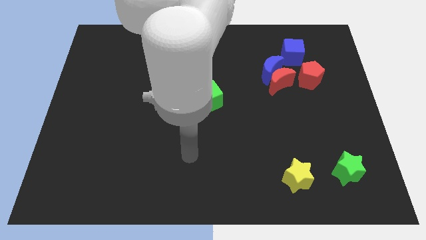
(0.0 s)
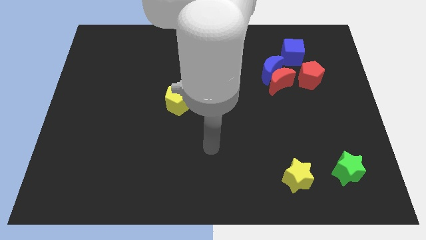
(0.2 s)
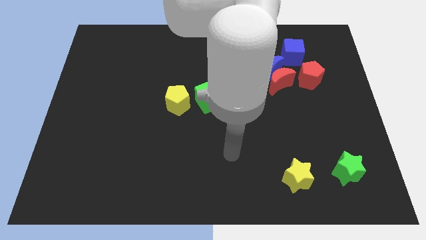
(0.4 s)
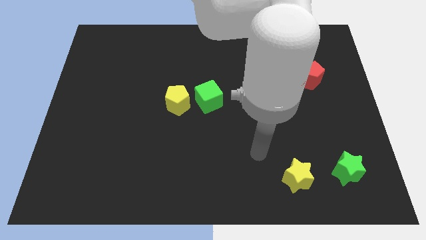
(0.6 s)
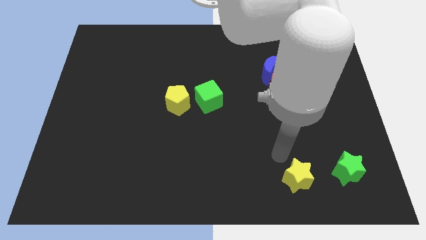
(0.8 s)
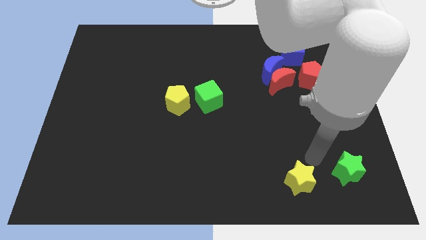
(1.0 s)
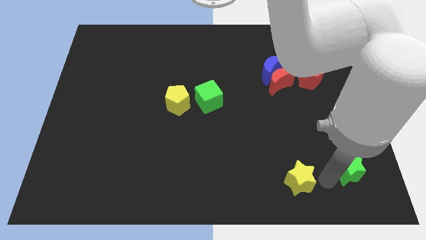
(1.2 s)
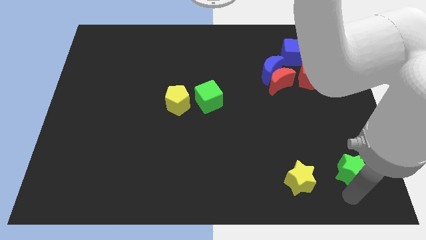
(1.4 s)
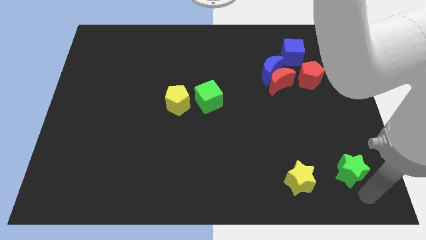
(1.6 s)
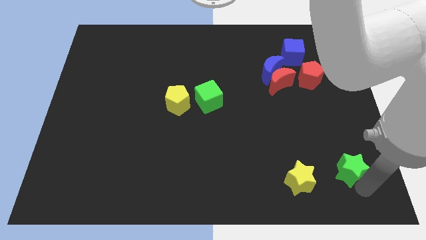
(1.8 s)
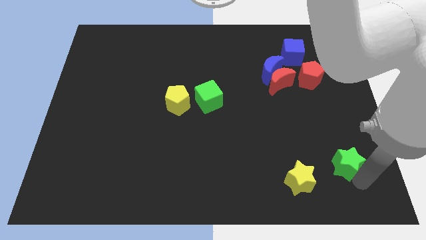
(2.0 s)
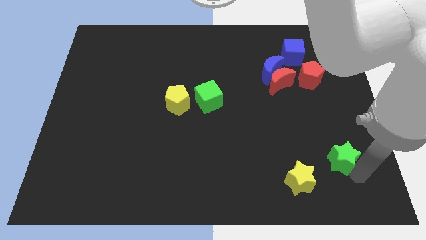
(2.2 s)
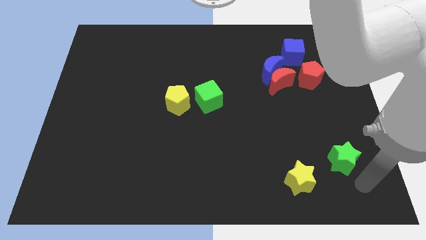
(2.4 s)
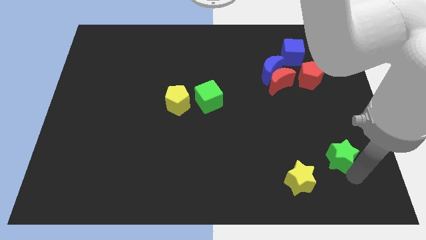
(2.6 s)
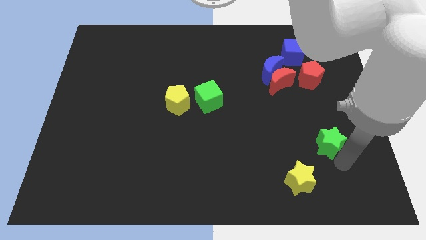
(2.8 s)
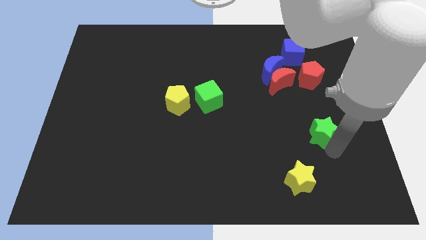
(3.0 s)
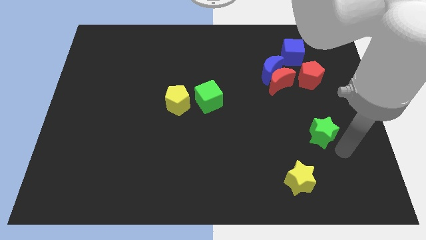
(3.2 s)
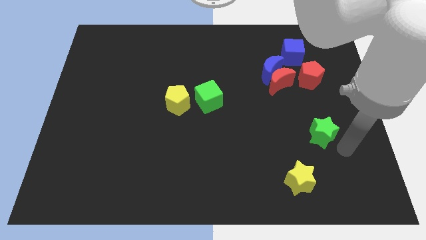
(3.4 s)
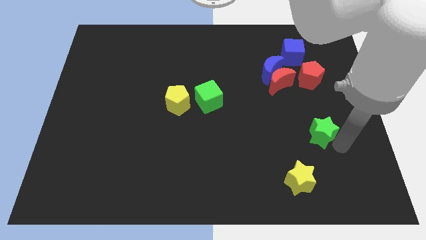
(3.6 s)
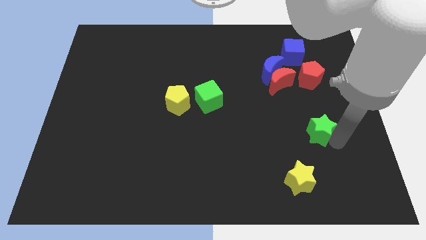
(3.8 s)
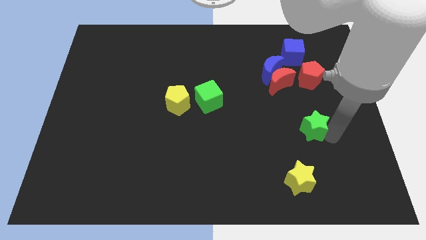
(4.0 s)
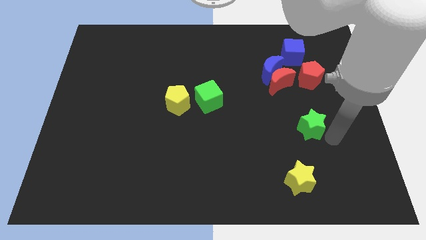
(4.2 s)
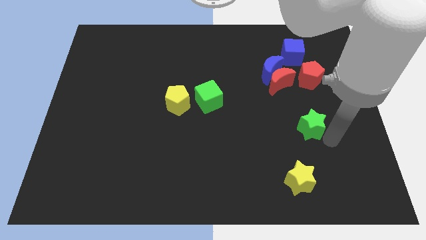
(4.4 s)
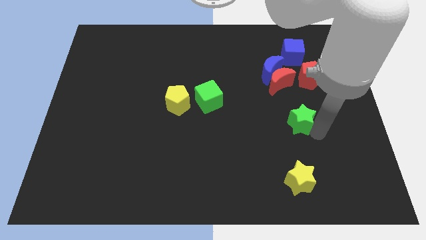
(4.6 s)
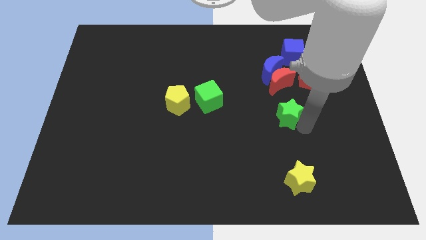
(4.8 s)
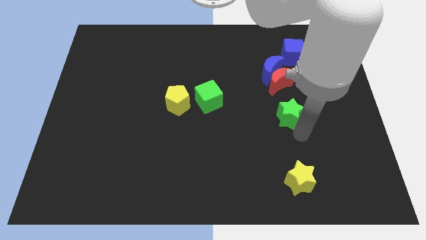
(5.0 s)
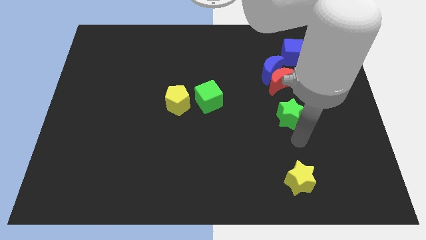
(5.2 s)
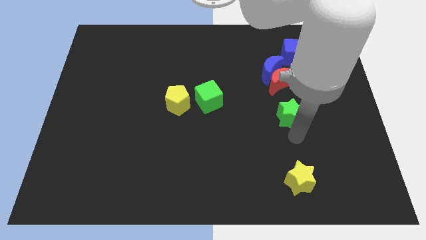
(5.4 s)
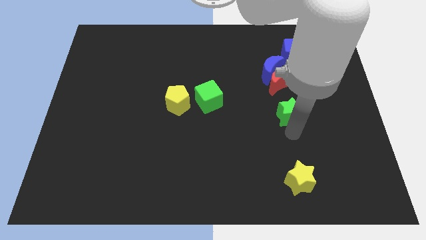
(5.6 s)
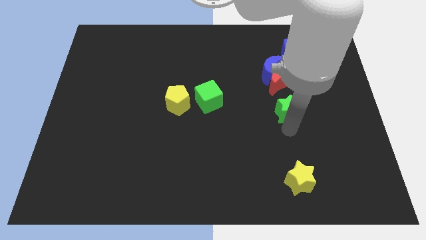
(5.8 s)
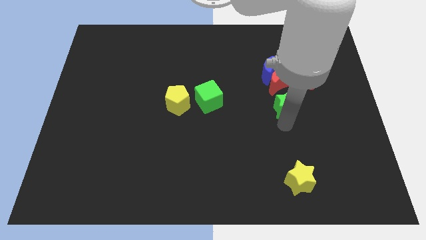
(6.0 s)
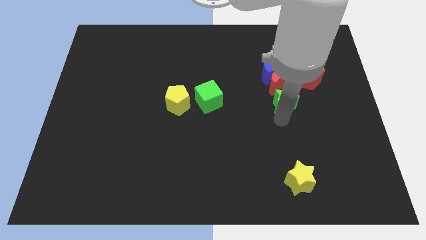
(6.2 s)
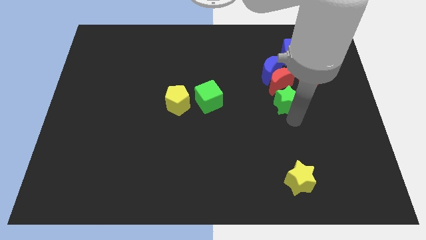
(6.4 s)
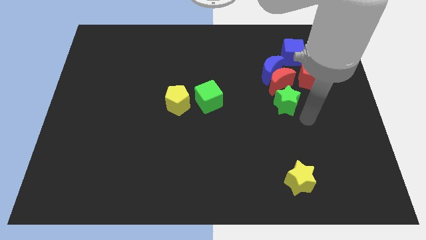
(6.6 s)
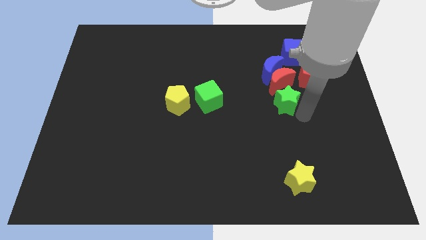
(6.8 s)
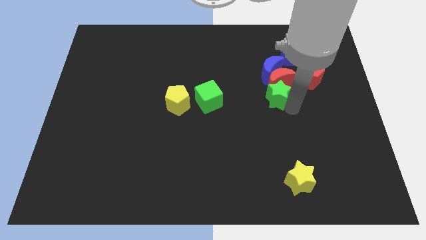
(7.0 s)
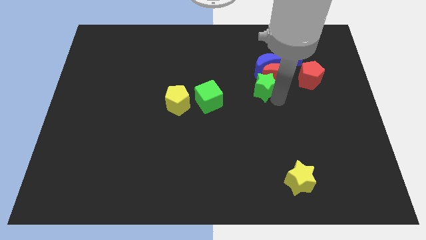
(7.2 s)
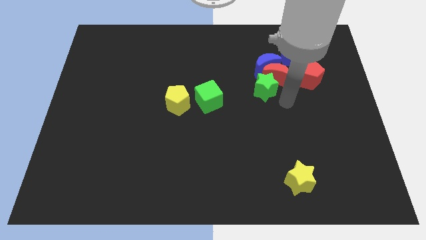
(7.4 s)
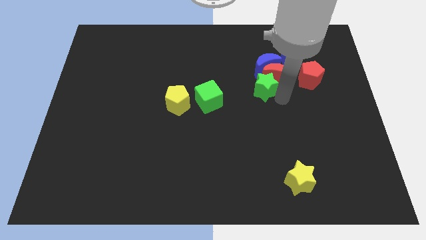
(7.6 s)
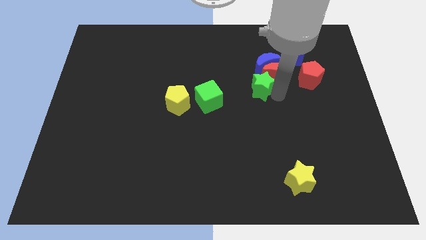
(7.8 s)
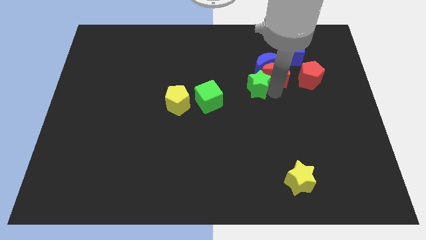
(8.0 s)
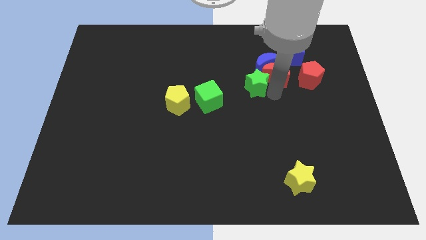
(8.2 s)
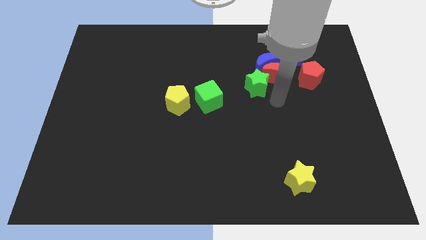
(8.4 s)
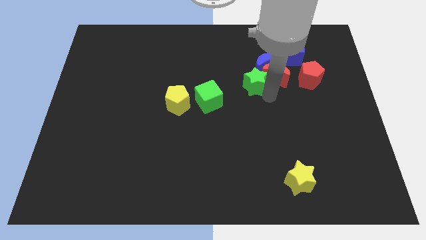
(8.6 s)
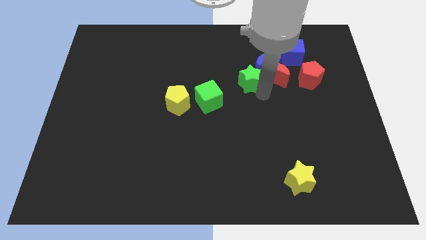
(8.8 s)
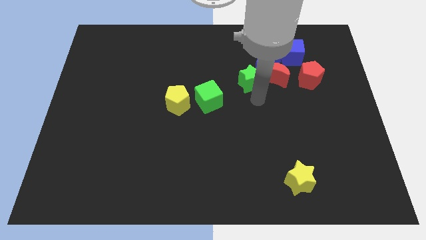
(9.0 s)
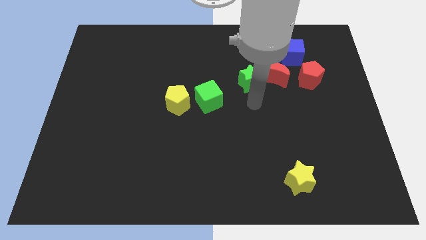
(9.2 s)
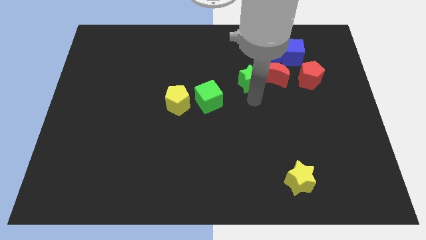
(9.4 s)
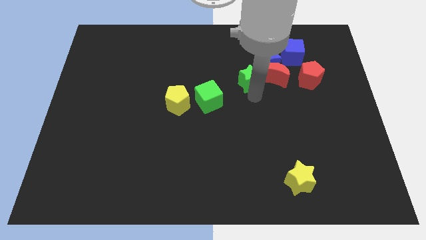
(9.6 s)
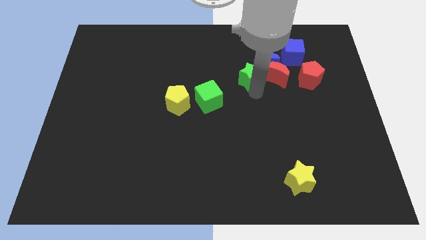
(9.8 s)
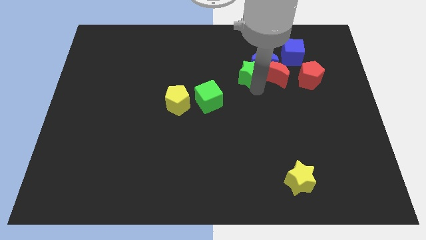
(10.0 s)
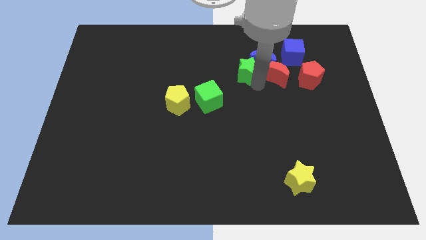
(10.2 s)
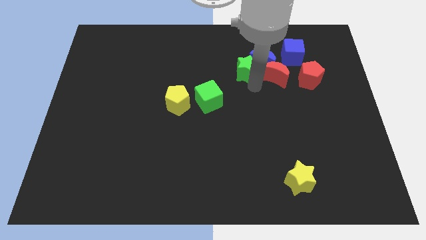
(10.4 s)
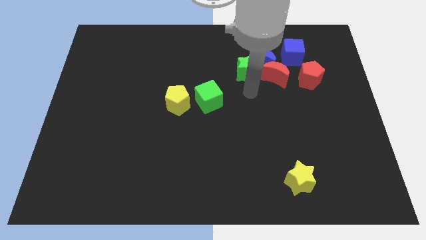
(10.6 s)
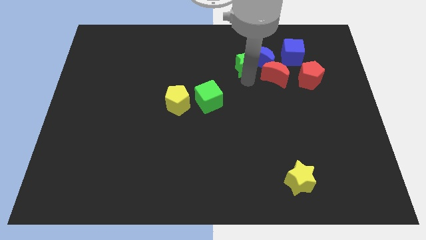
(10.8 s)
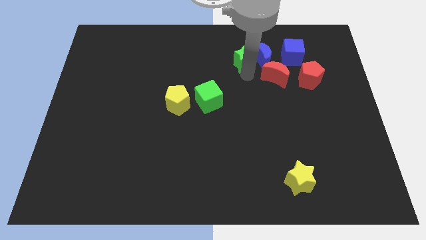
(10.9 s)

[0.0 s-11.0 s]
push the green star diagonally up and to the left of the blue moon

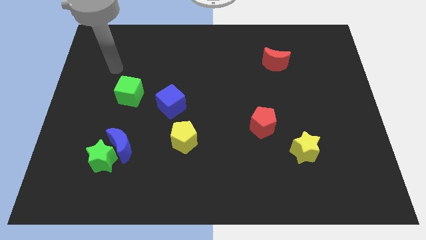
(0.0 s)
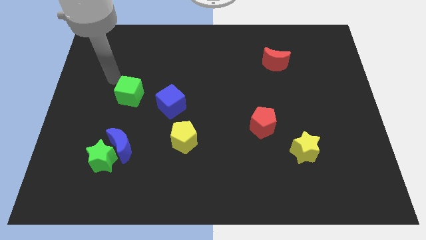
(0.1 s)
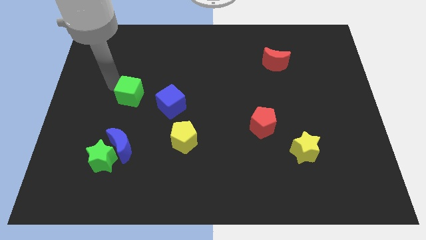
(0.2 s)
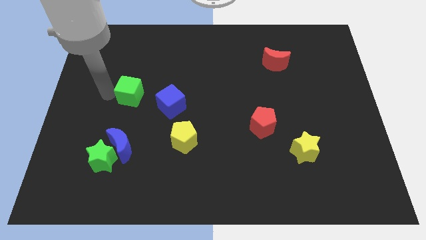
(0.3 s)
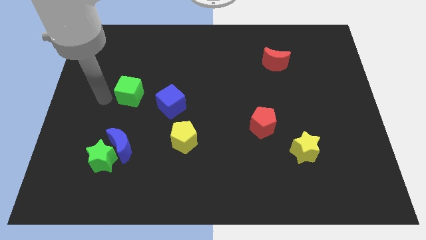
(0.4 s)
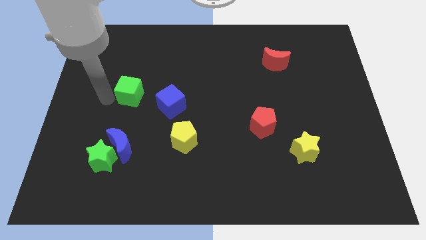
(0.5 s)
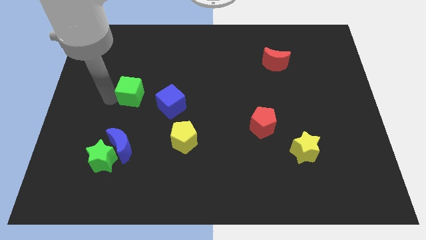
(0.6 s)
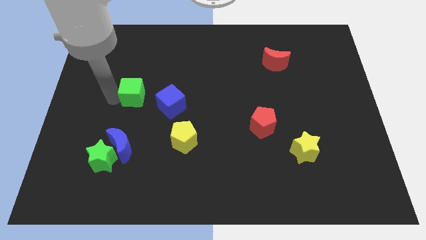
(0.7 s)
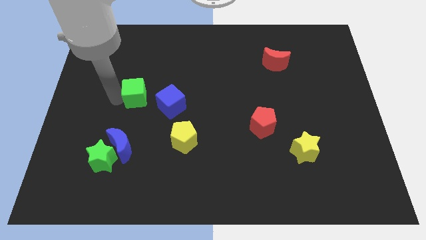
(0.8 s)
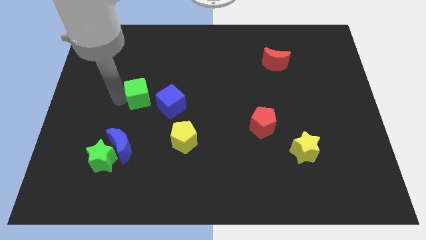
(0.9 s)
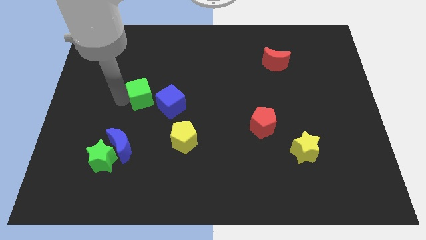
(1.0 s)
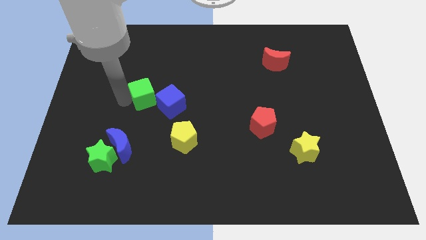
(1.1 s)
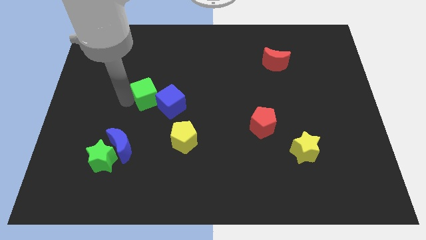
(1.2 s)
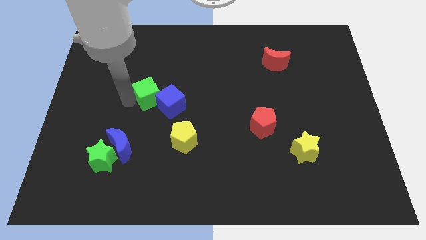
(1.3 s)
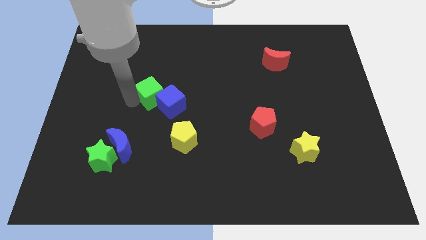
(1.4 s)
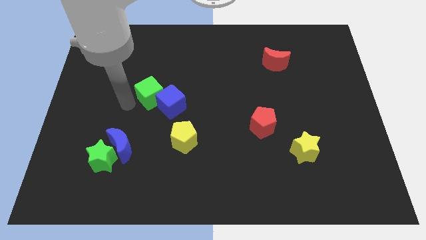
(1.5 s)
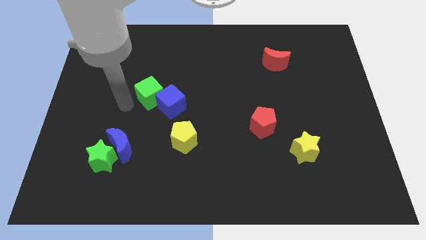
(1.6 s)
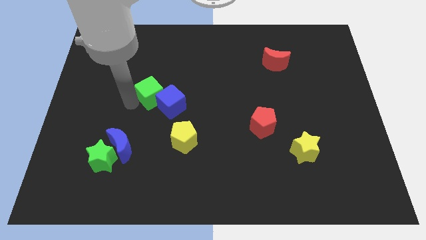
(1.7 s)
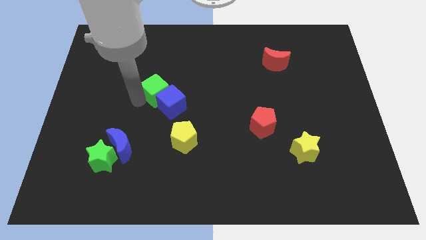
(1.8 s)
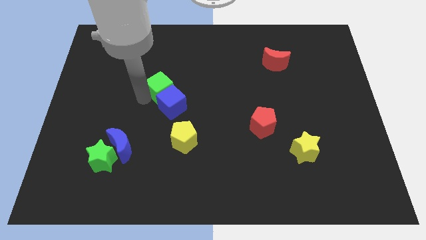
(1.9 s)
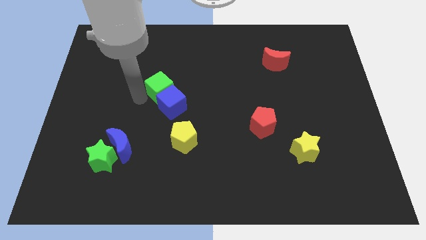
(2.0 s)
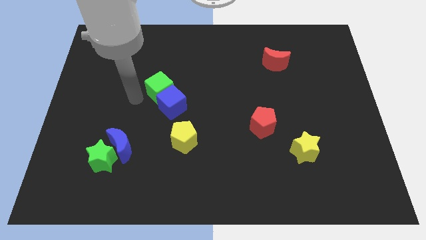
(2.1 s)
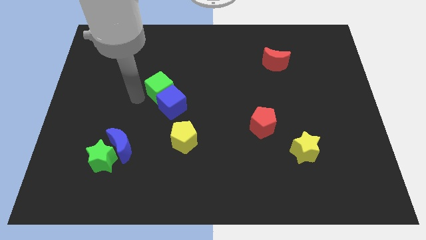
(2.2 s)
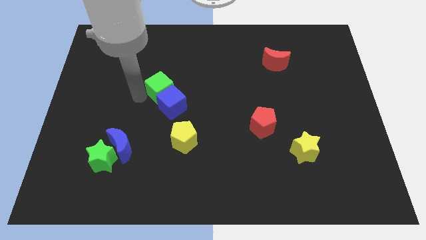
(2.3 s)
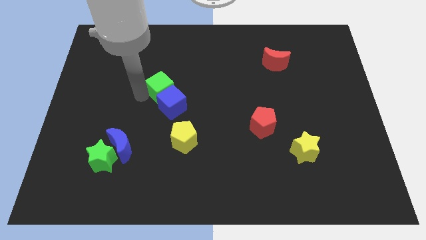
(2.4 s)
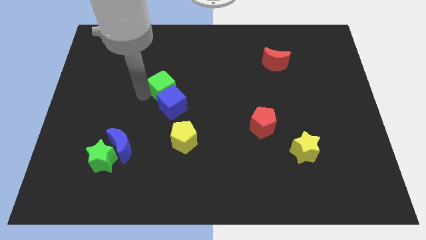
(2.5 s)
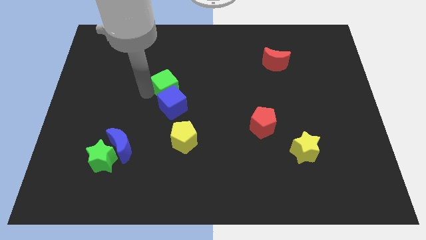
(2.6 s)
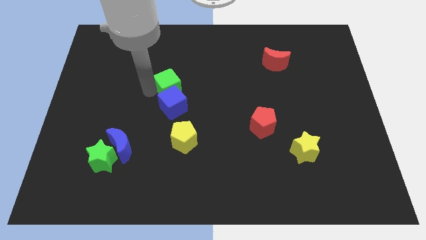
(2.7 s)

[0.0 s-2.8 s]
slide the green cube to the top right of the blue cube
